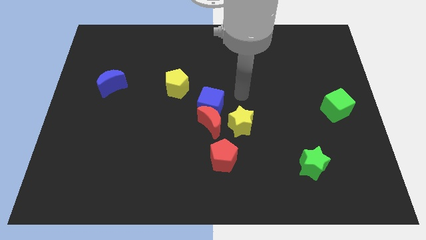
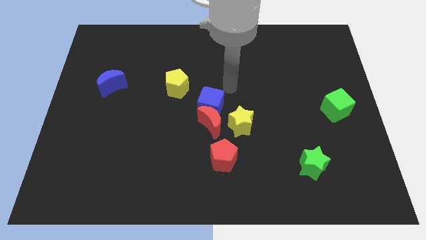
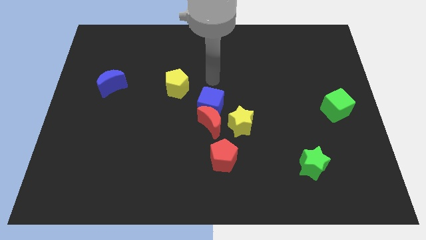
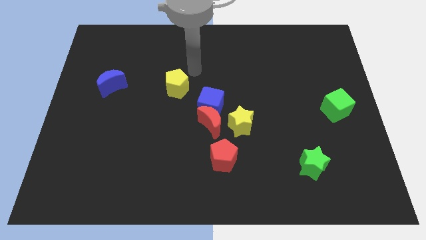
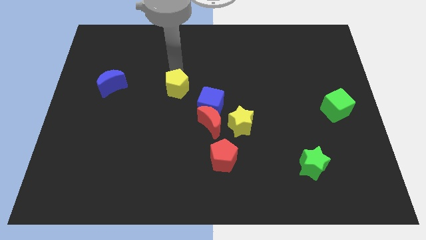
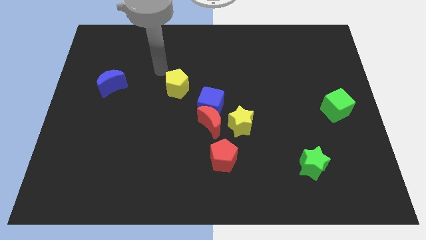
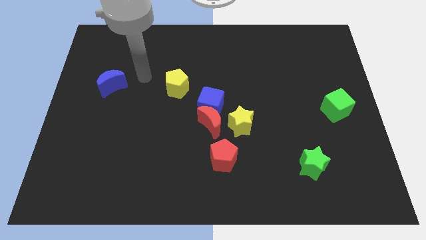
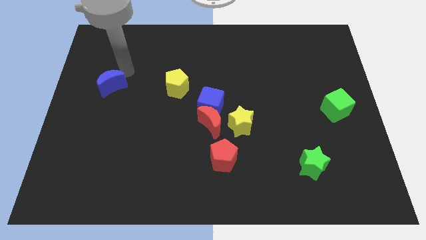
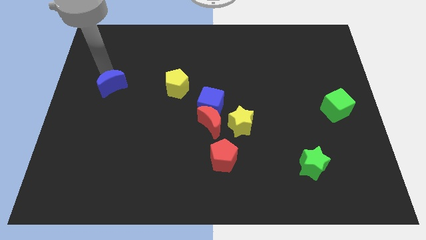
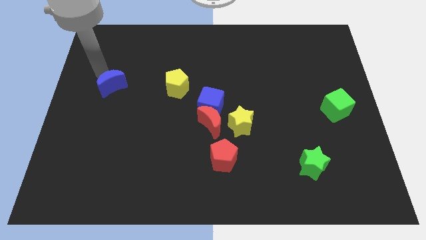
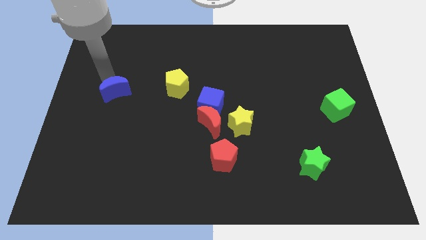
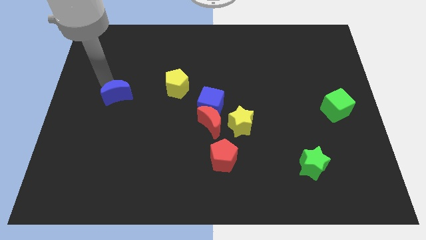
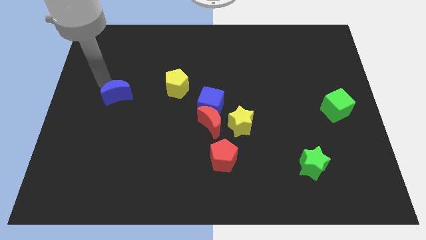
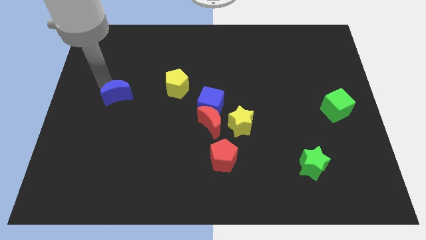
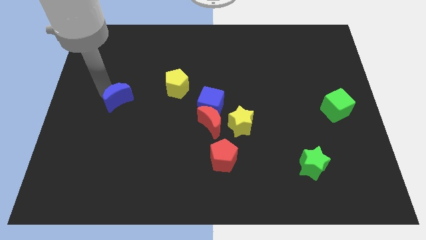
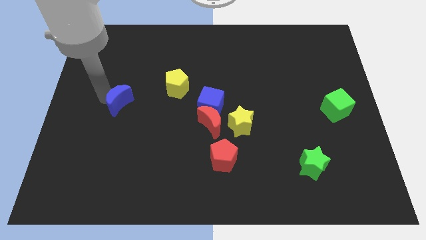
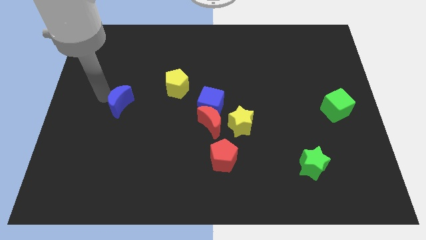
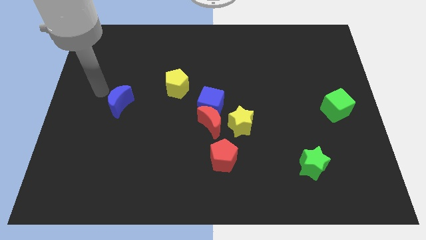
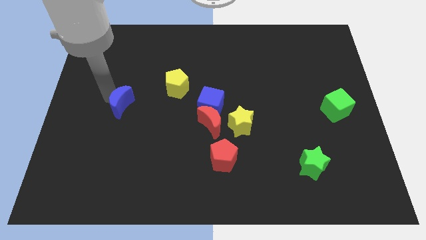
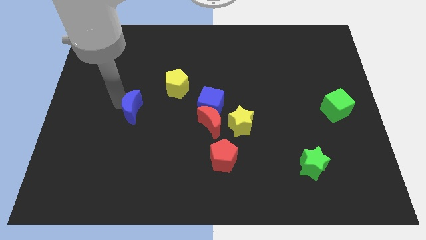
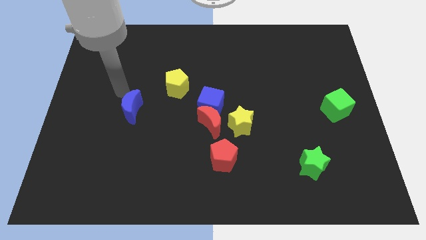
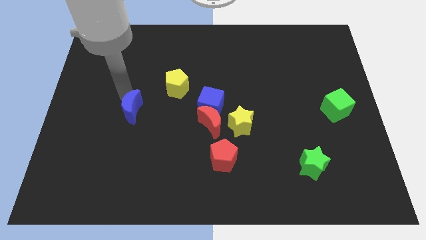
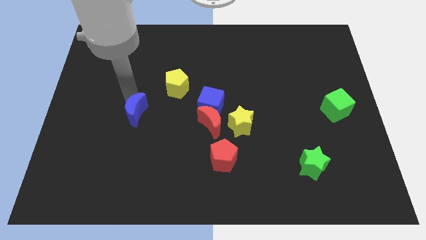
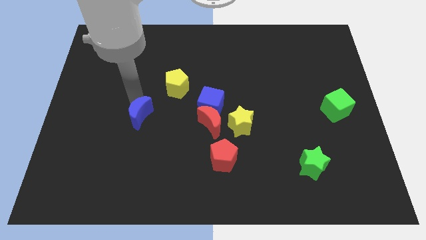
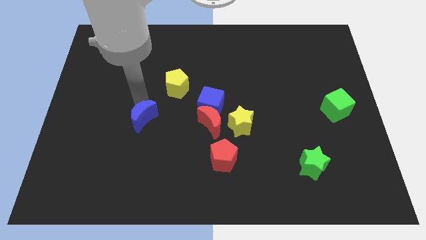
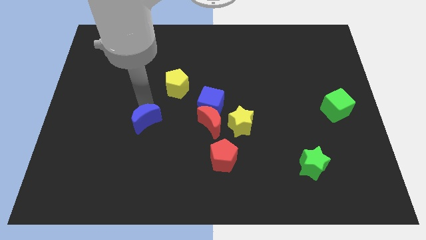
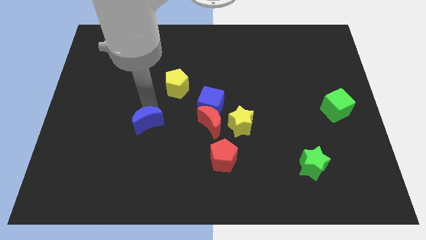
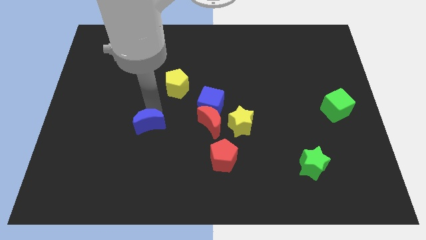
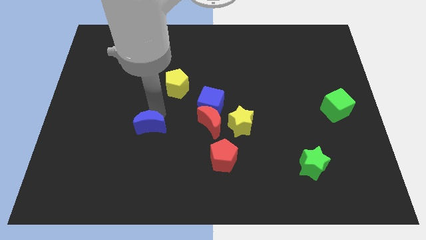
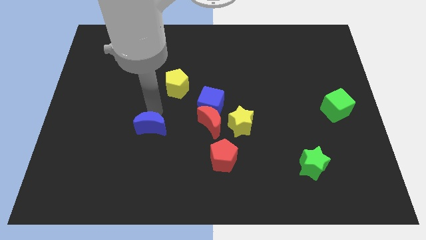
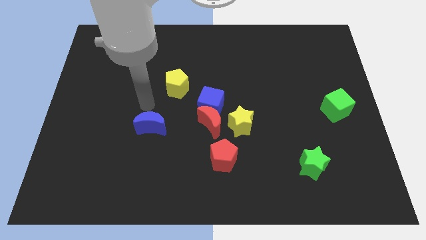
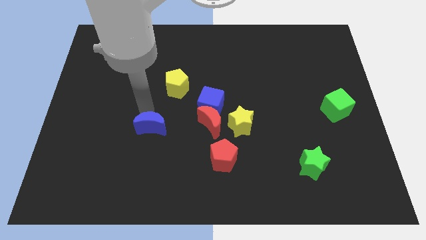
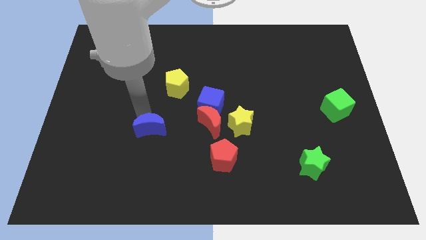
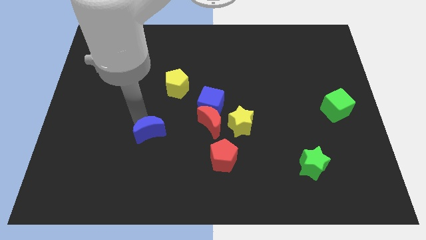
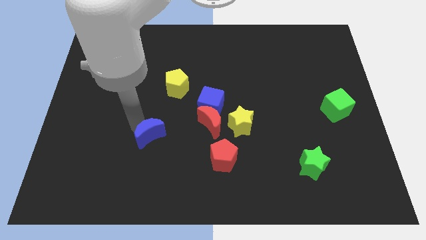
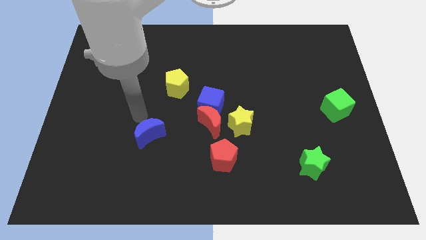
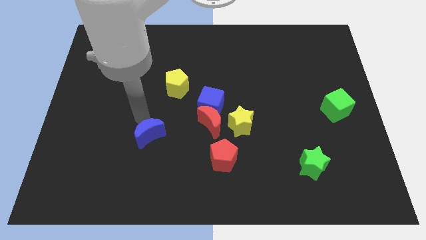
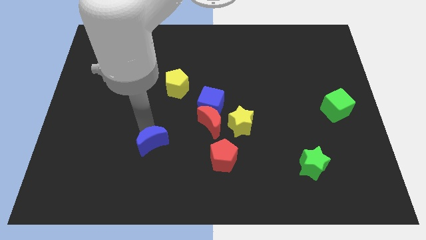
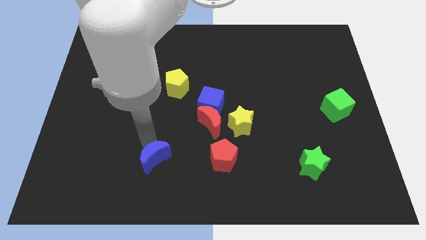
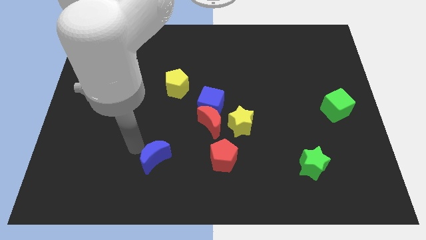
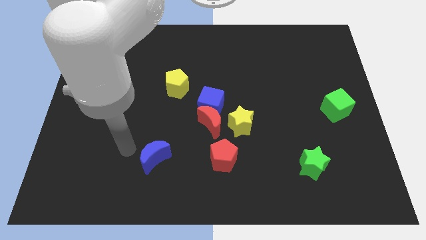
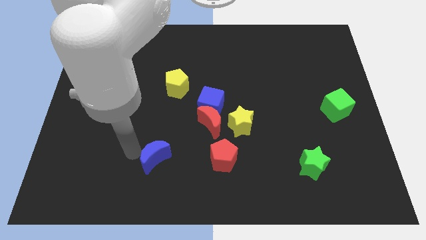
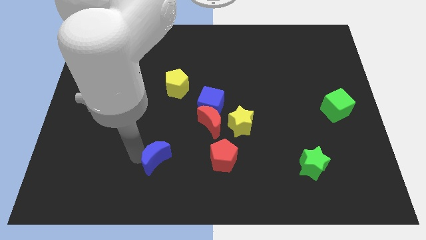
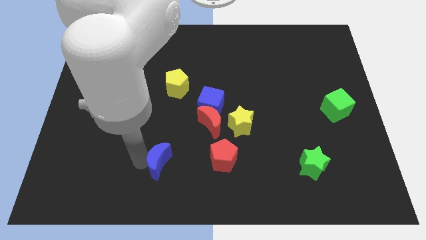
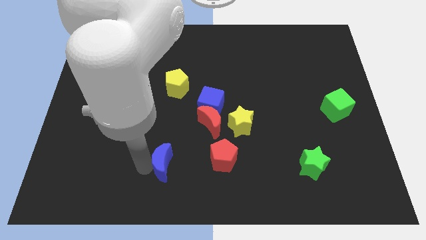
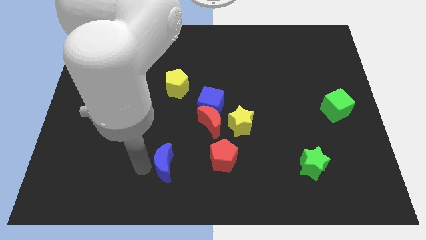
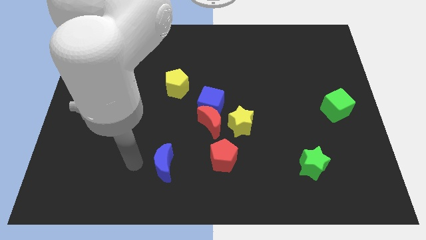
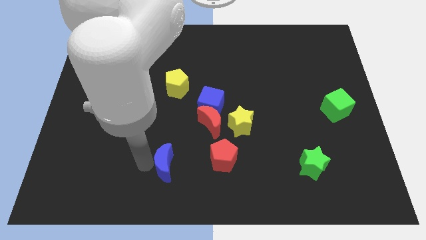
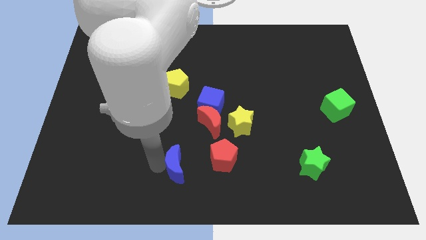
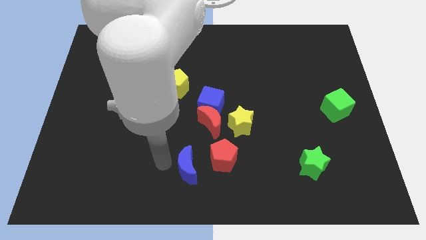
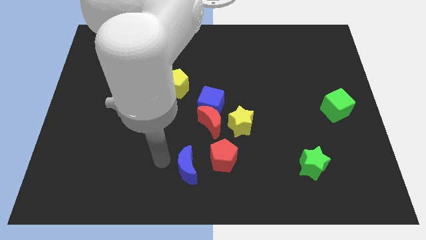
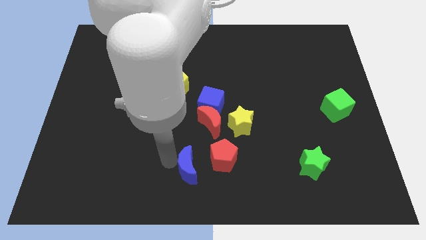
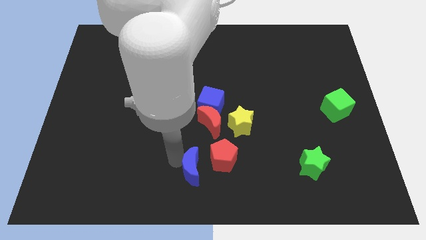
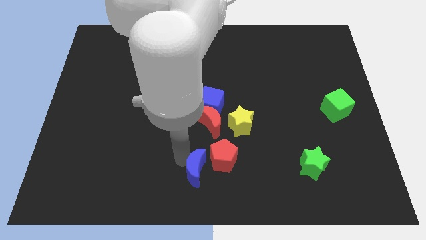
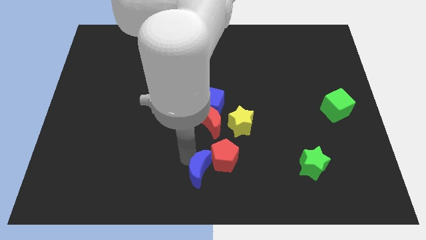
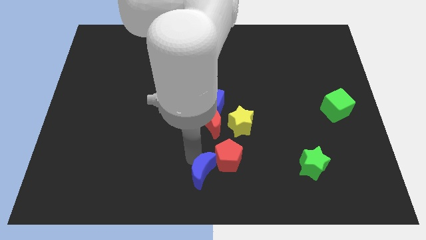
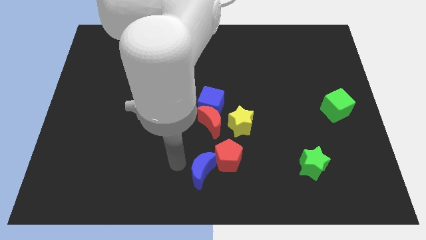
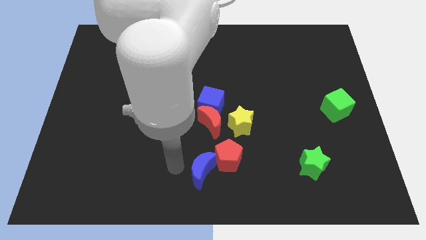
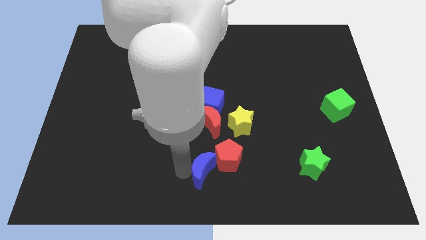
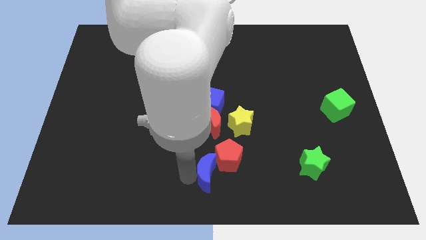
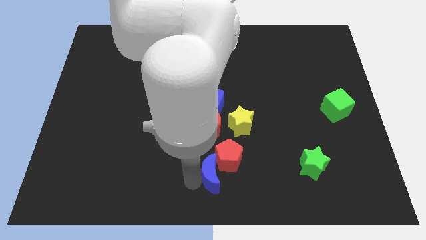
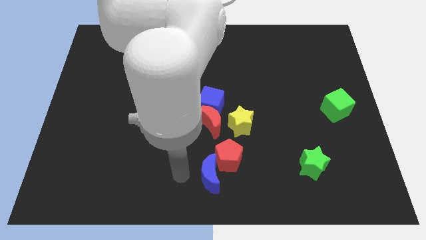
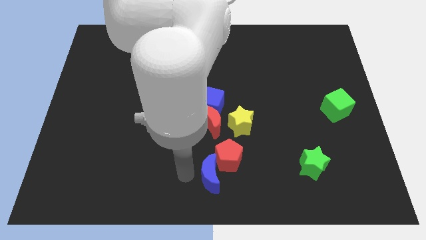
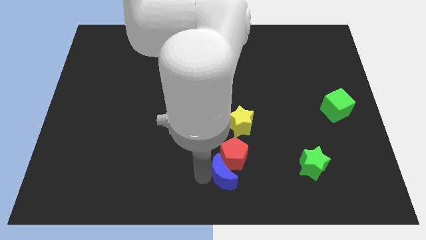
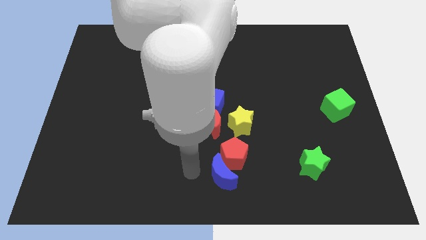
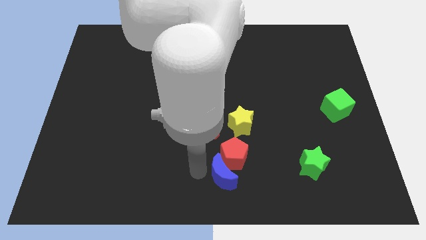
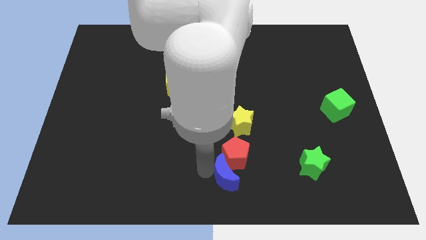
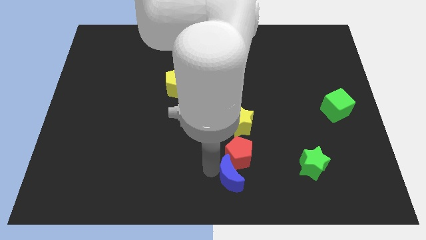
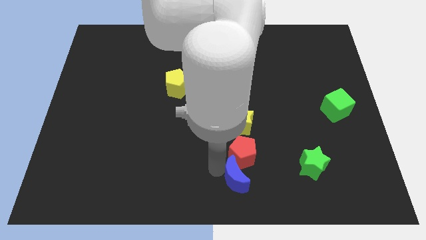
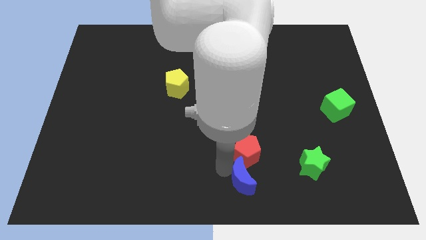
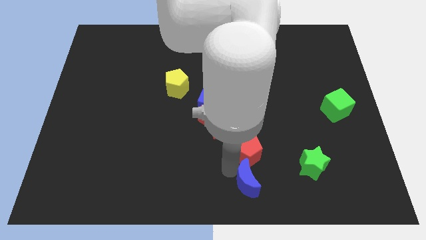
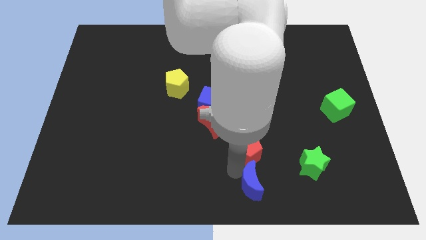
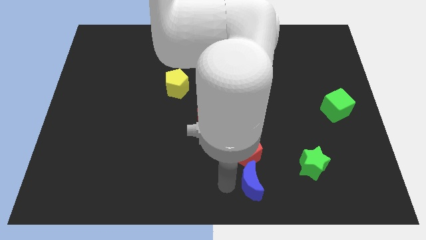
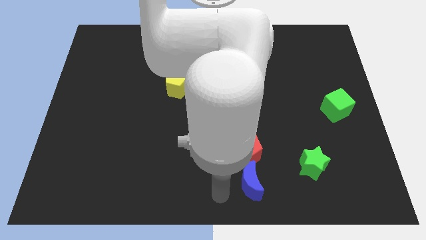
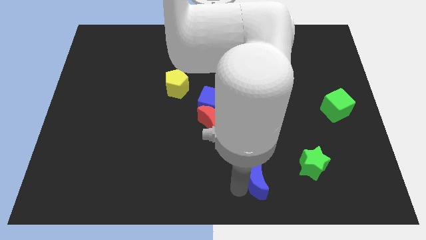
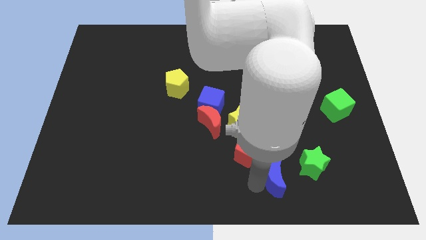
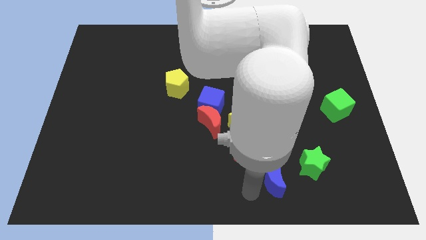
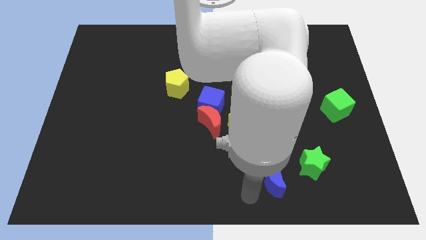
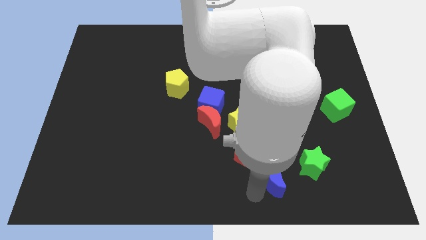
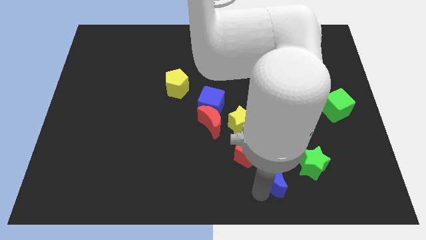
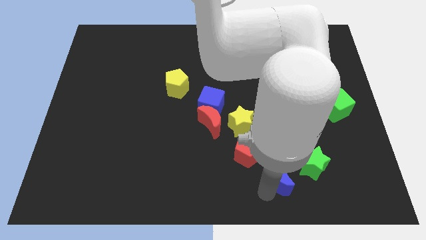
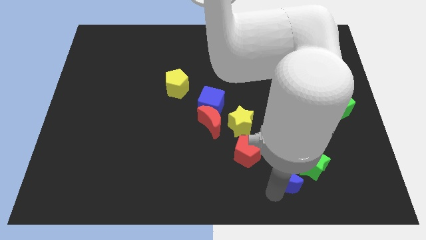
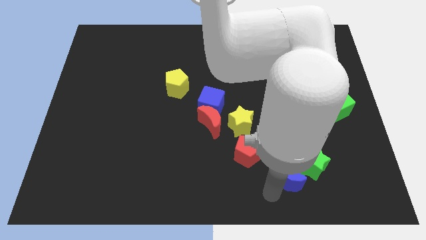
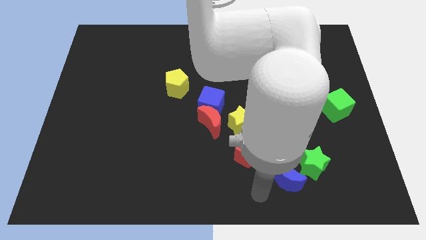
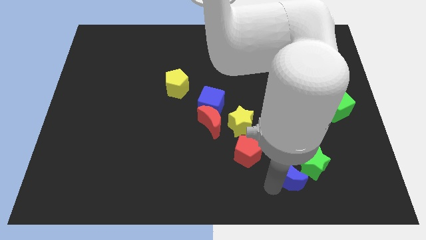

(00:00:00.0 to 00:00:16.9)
push the blue moon towards the green star
